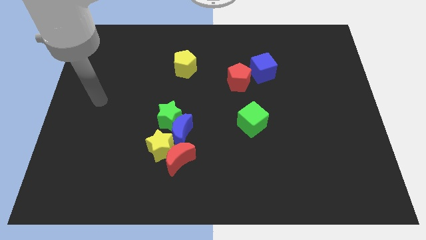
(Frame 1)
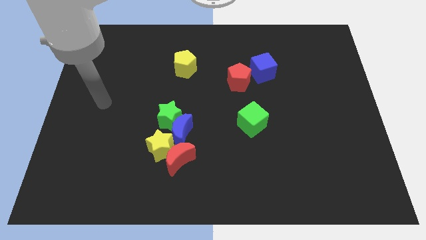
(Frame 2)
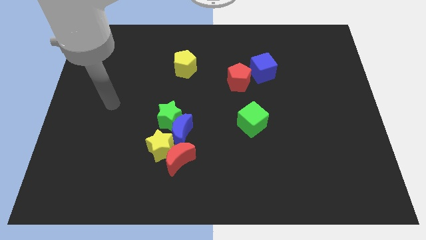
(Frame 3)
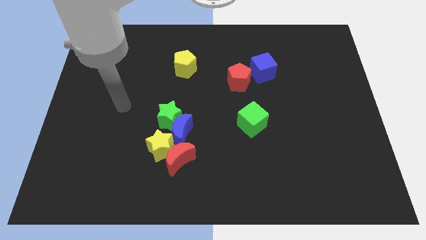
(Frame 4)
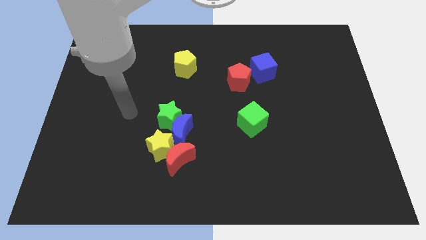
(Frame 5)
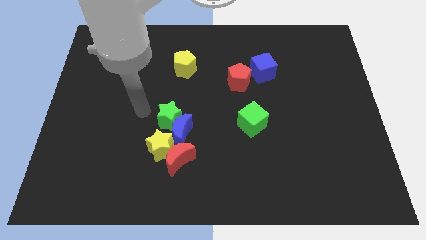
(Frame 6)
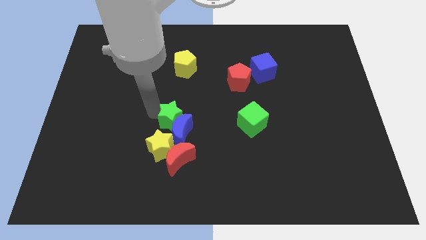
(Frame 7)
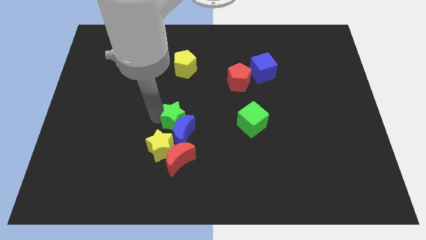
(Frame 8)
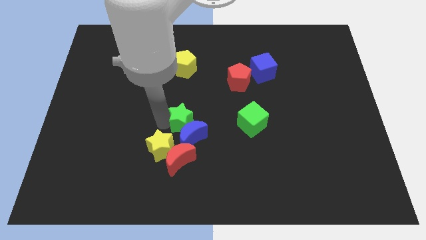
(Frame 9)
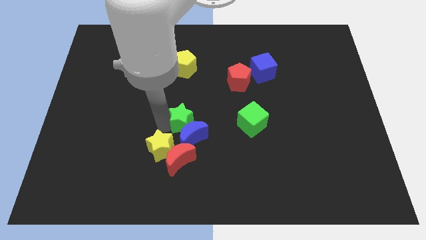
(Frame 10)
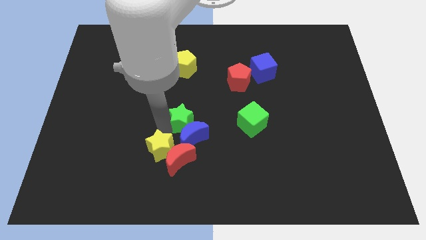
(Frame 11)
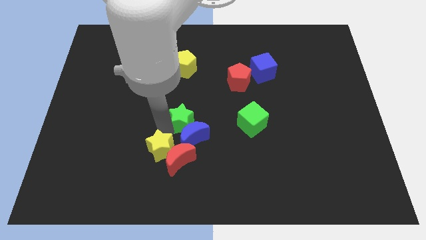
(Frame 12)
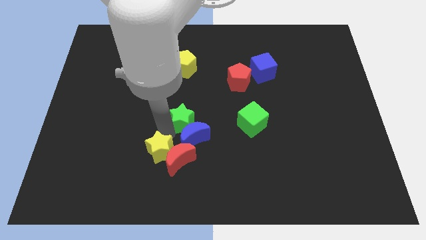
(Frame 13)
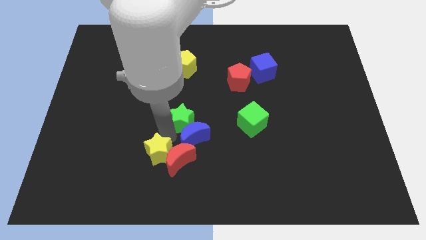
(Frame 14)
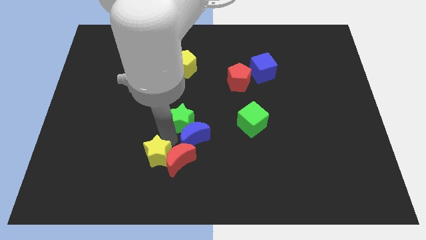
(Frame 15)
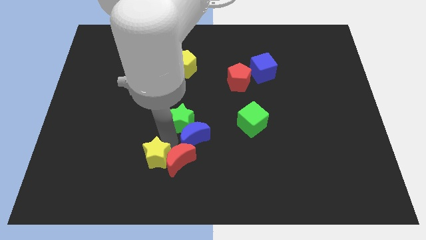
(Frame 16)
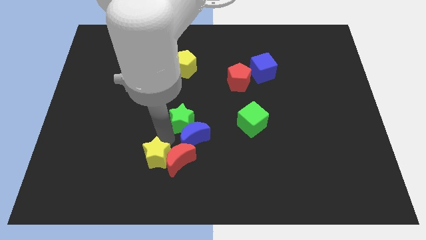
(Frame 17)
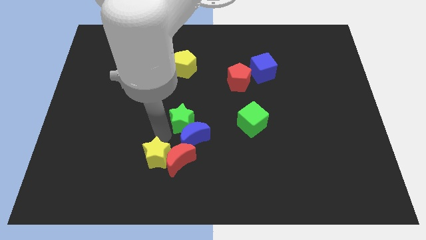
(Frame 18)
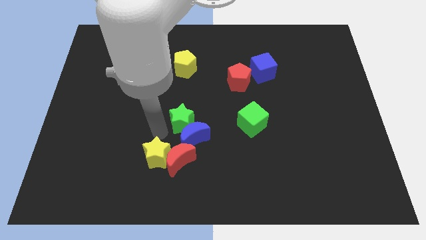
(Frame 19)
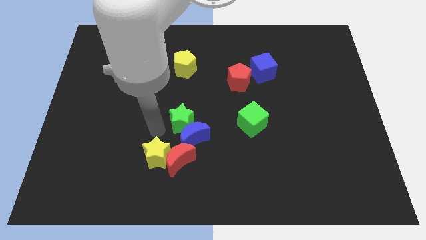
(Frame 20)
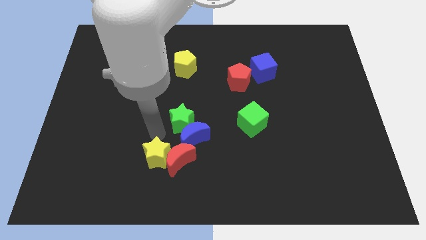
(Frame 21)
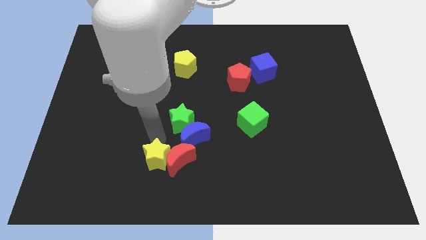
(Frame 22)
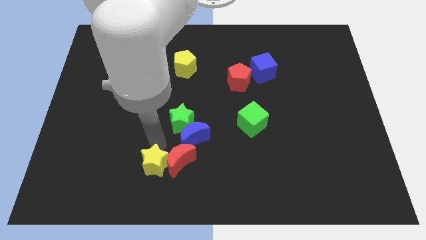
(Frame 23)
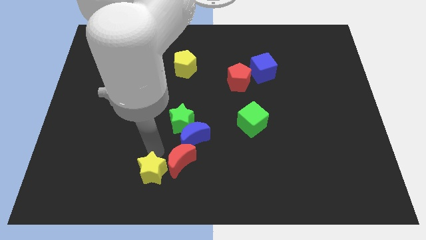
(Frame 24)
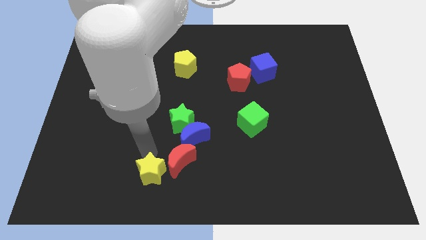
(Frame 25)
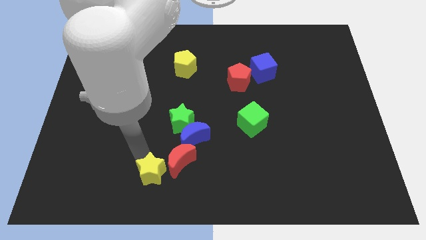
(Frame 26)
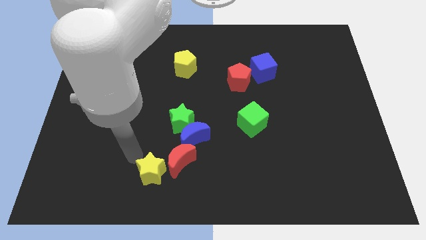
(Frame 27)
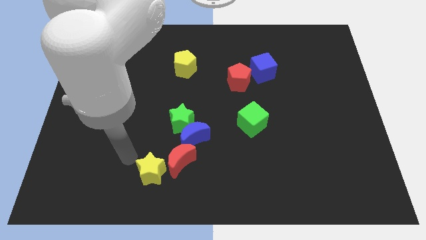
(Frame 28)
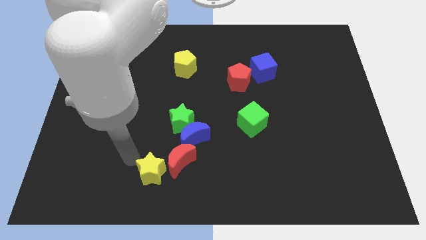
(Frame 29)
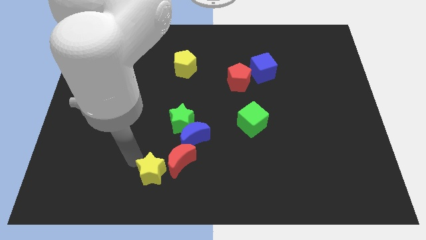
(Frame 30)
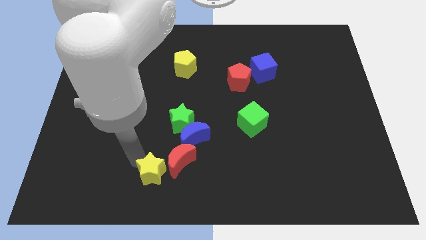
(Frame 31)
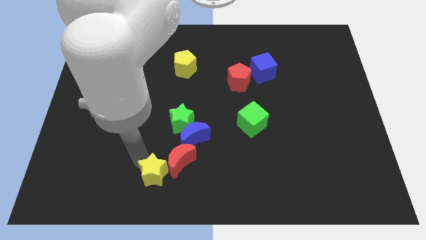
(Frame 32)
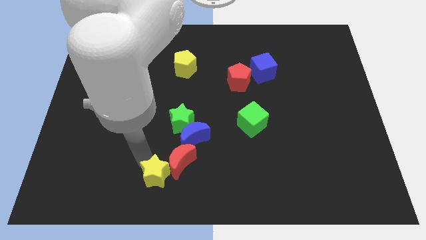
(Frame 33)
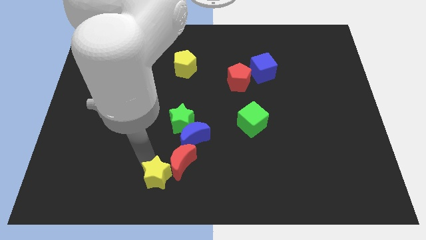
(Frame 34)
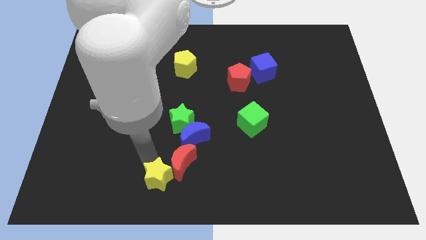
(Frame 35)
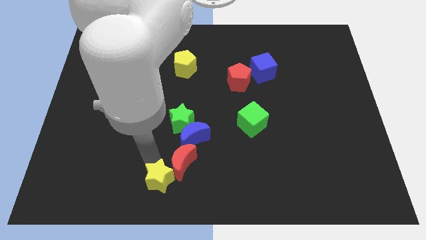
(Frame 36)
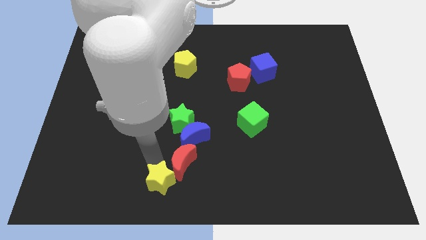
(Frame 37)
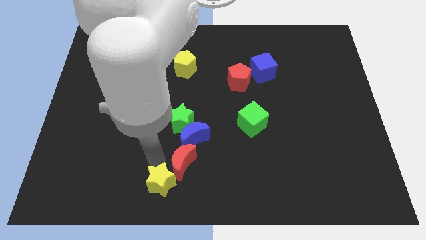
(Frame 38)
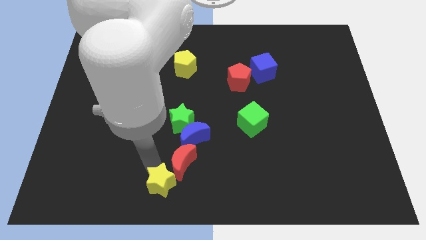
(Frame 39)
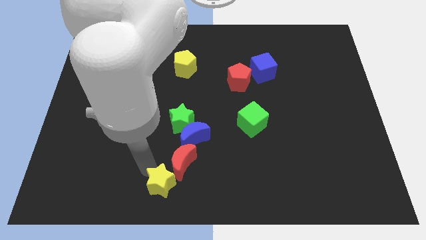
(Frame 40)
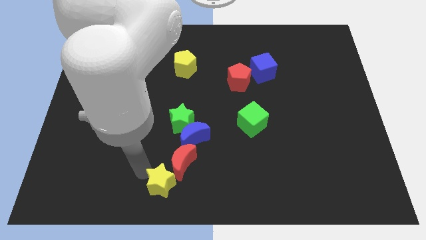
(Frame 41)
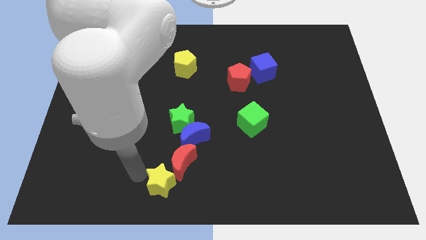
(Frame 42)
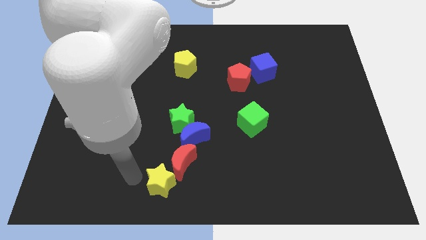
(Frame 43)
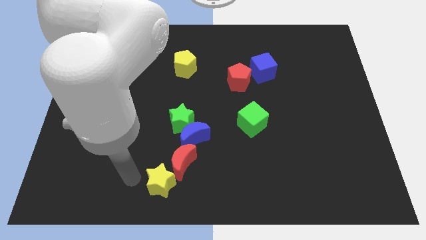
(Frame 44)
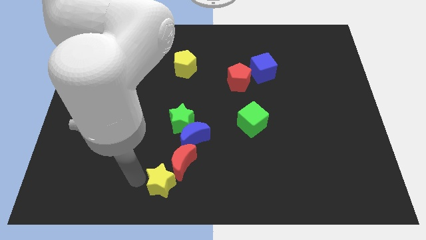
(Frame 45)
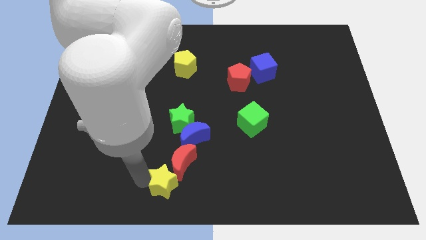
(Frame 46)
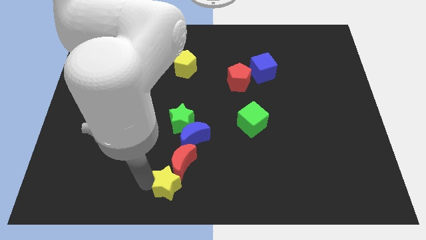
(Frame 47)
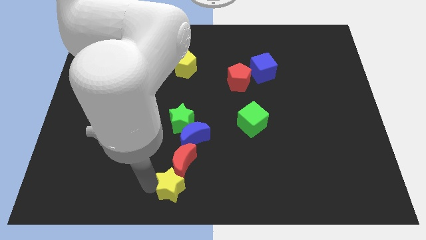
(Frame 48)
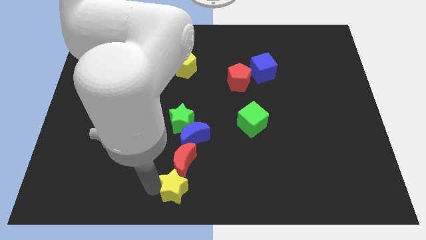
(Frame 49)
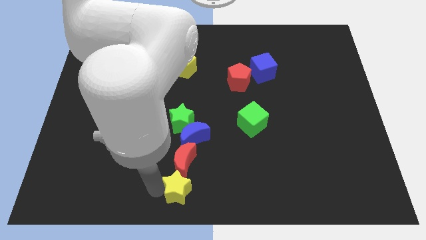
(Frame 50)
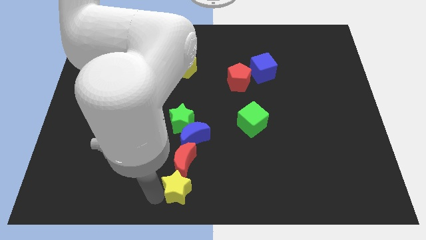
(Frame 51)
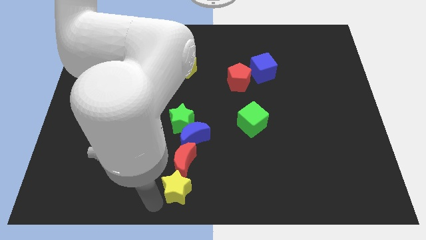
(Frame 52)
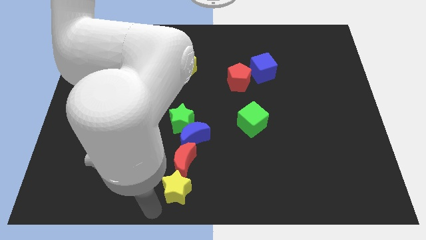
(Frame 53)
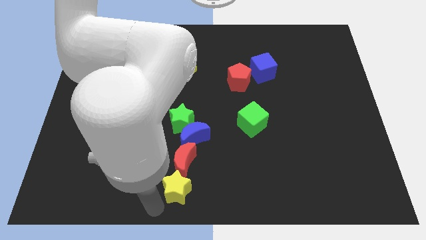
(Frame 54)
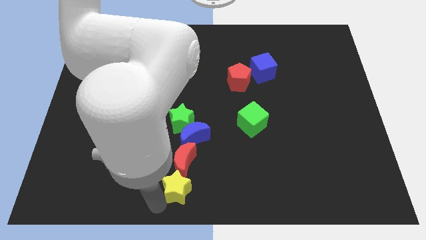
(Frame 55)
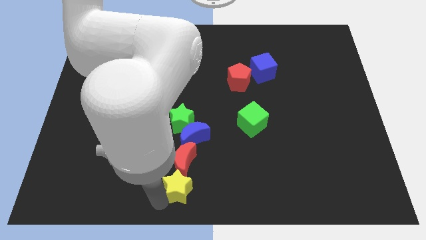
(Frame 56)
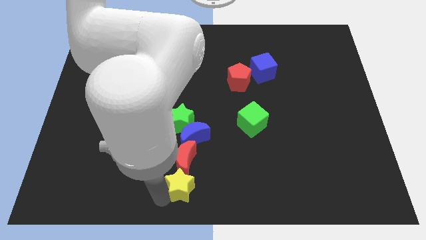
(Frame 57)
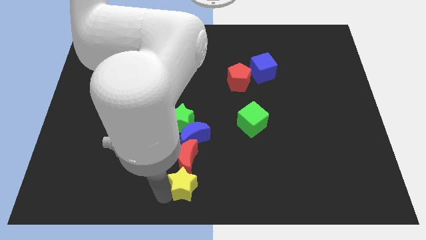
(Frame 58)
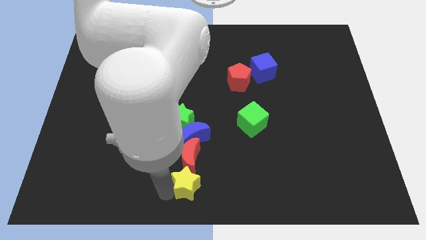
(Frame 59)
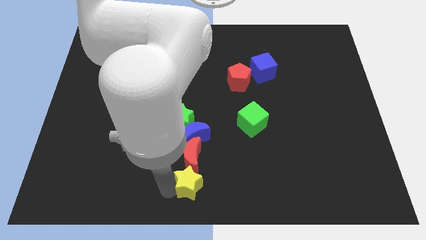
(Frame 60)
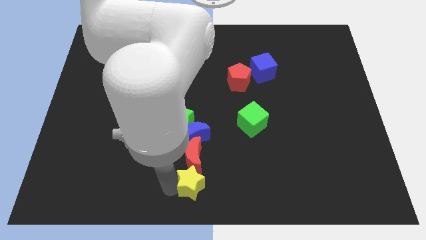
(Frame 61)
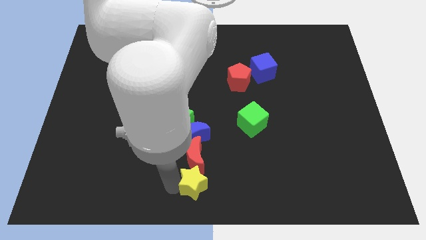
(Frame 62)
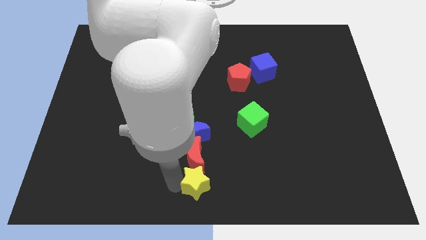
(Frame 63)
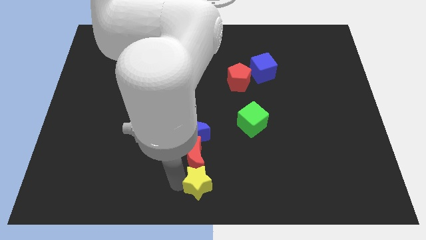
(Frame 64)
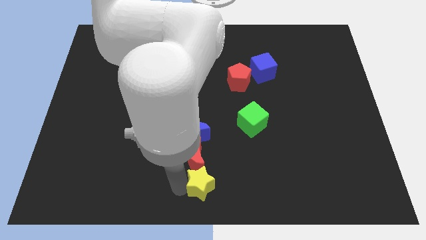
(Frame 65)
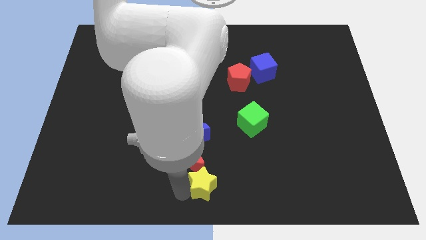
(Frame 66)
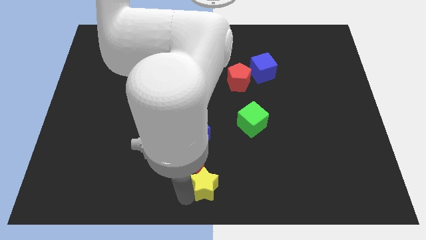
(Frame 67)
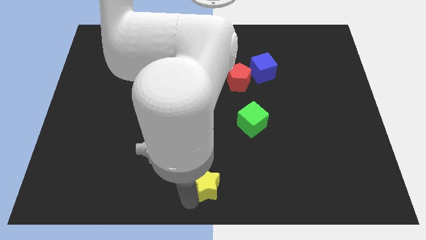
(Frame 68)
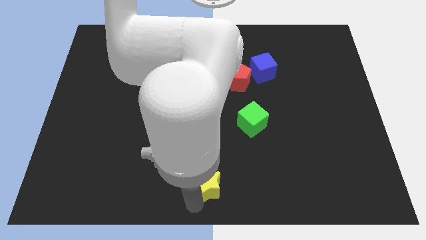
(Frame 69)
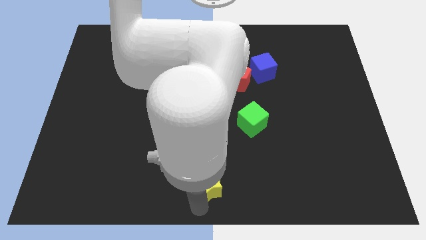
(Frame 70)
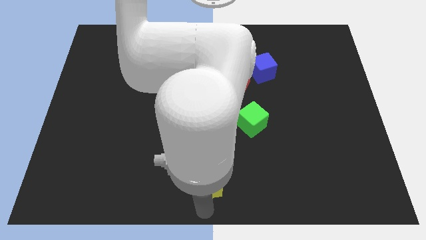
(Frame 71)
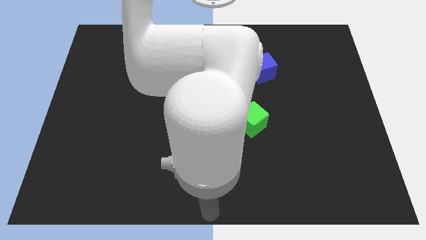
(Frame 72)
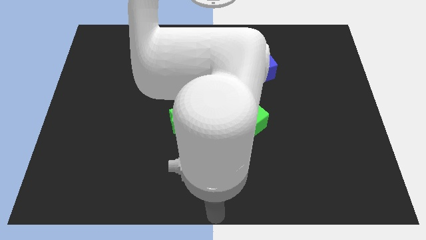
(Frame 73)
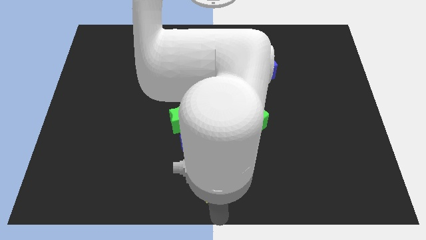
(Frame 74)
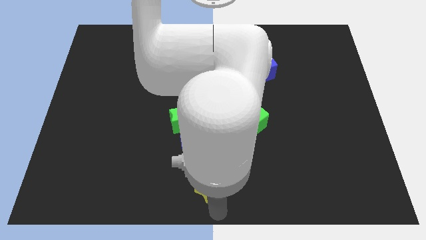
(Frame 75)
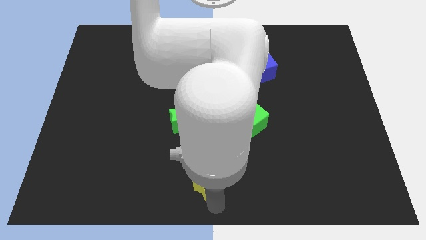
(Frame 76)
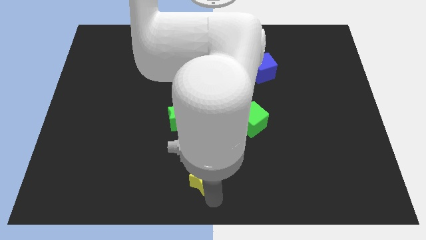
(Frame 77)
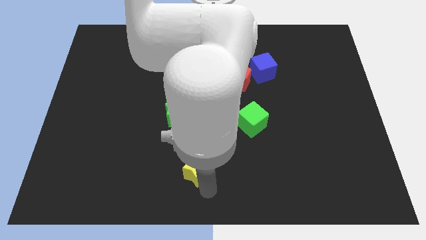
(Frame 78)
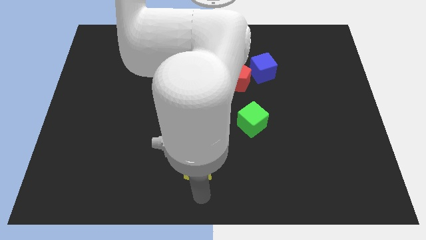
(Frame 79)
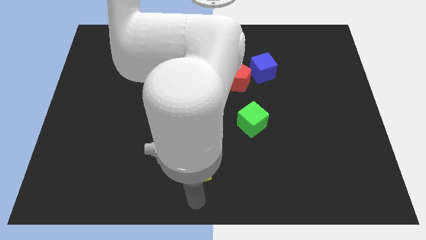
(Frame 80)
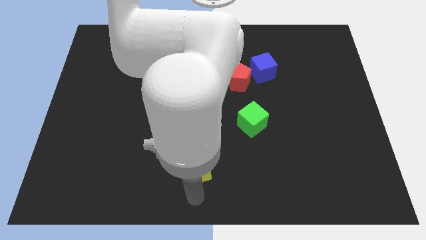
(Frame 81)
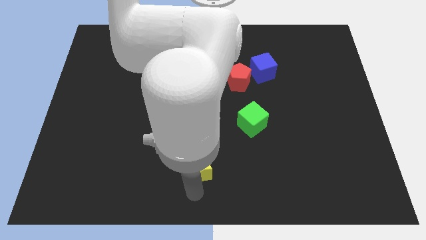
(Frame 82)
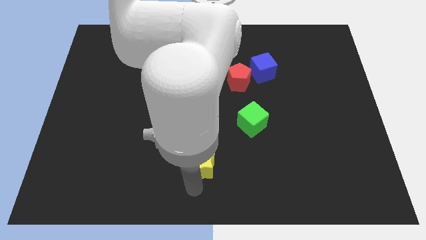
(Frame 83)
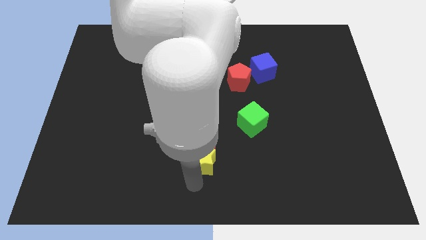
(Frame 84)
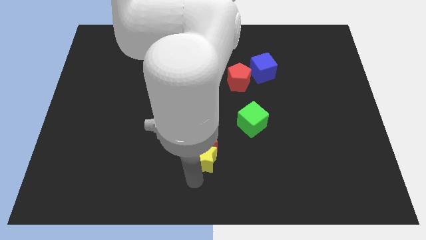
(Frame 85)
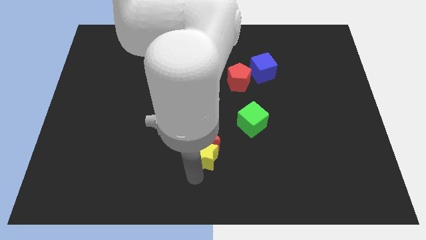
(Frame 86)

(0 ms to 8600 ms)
put the yellow star to the bottom right of the green star
